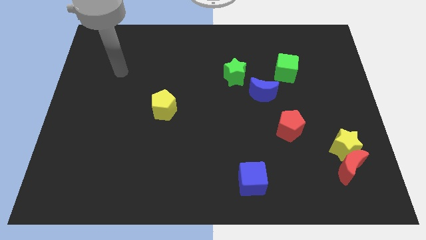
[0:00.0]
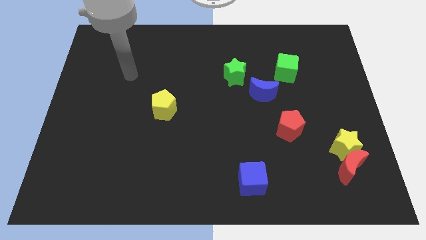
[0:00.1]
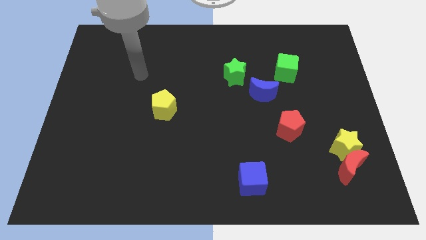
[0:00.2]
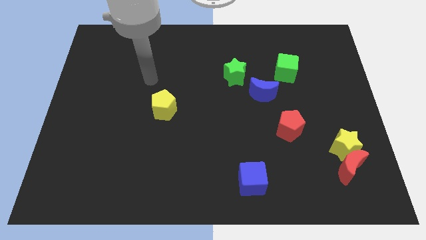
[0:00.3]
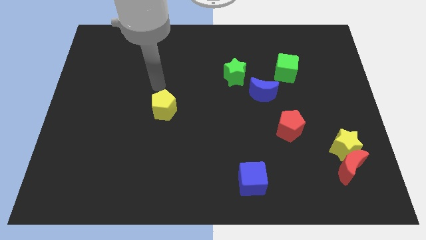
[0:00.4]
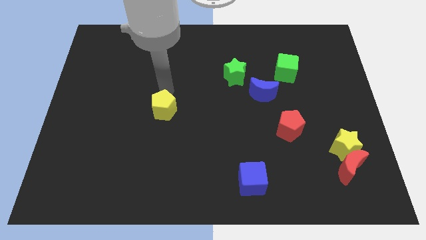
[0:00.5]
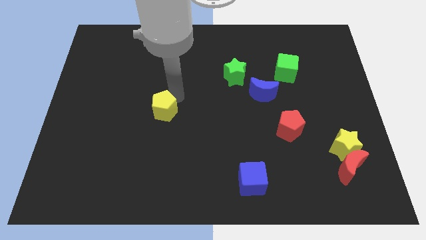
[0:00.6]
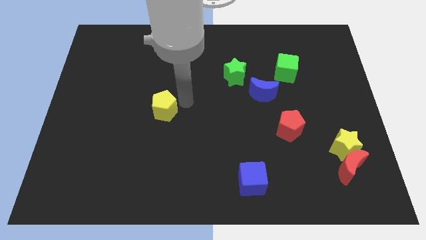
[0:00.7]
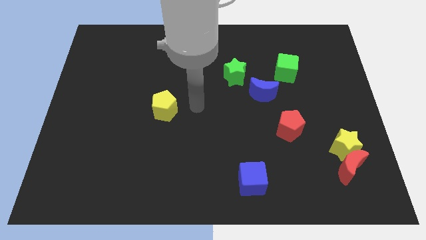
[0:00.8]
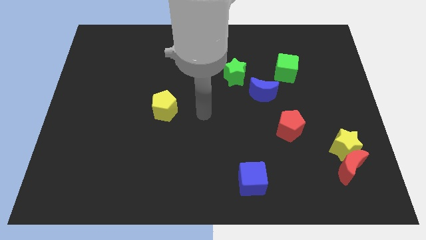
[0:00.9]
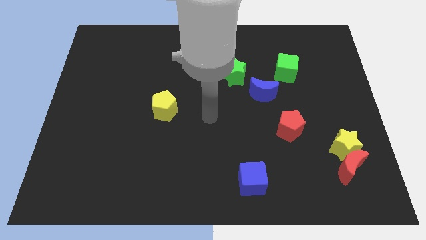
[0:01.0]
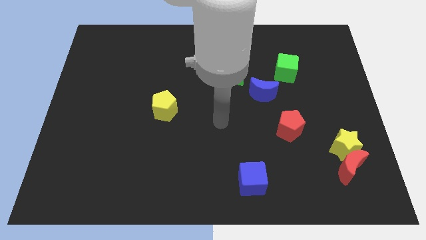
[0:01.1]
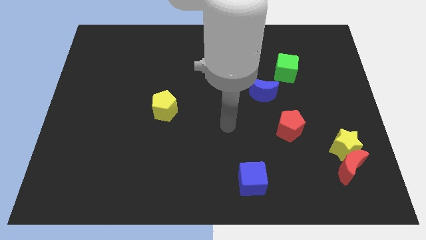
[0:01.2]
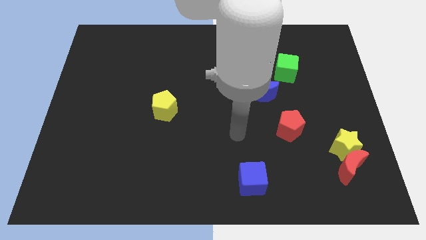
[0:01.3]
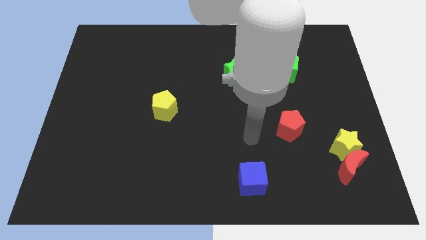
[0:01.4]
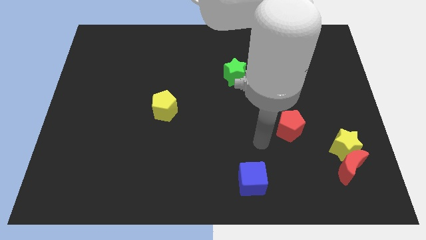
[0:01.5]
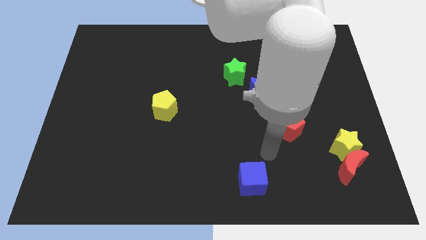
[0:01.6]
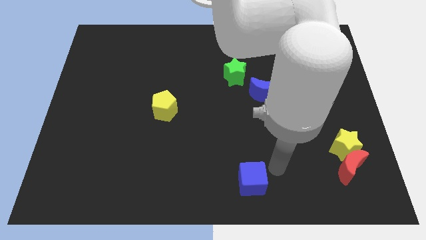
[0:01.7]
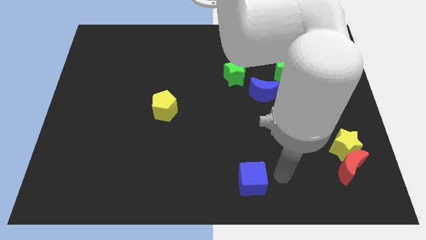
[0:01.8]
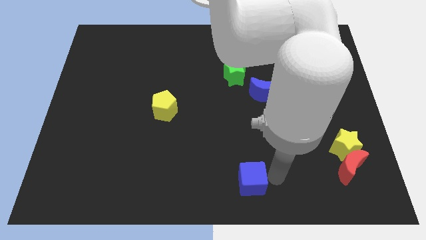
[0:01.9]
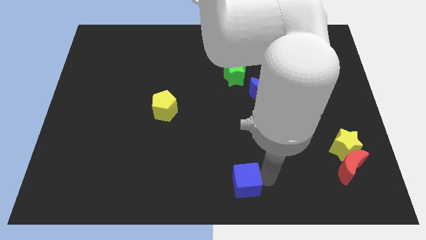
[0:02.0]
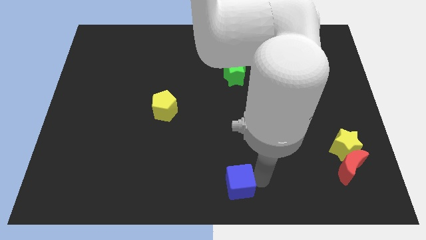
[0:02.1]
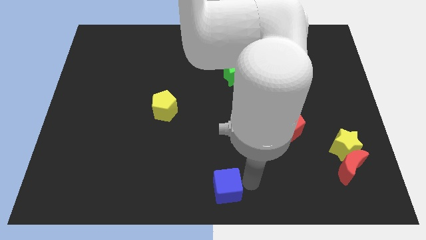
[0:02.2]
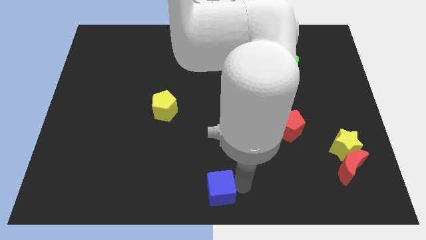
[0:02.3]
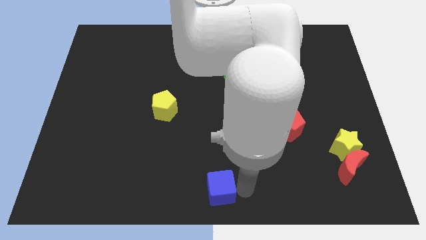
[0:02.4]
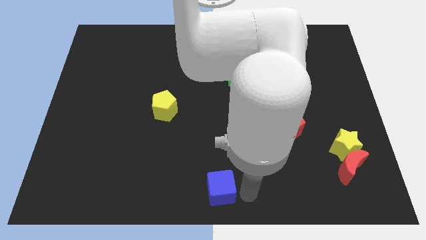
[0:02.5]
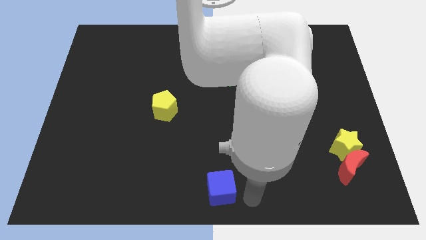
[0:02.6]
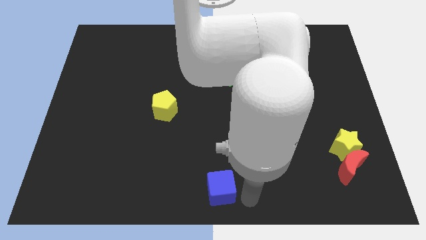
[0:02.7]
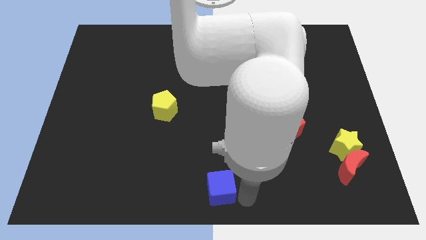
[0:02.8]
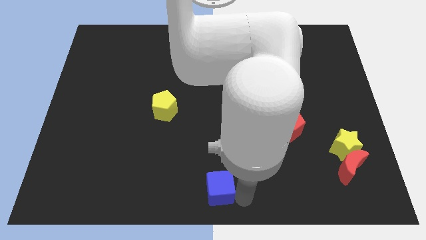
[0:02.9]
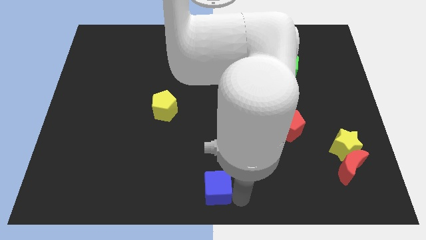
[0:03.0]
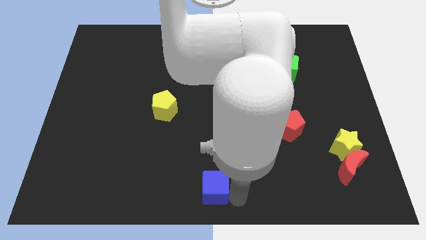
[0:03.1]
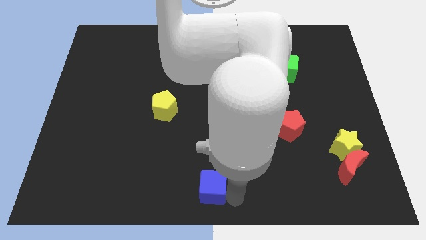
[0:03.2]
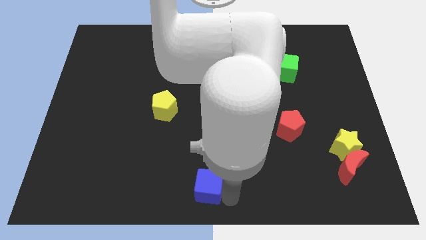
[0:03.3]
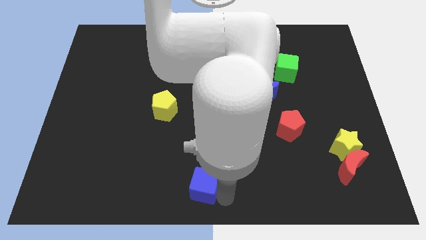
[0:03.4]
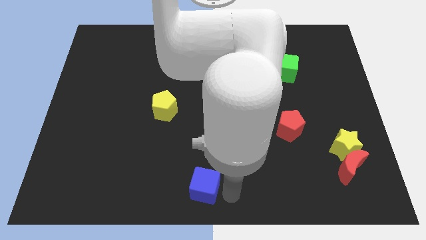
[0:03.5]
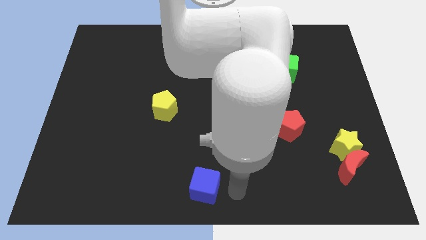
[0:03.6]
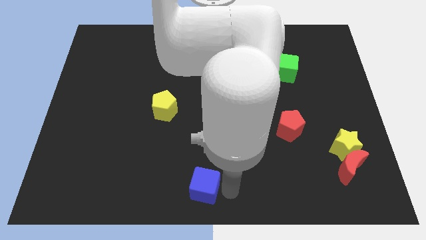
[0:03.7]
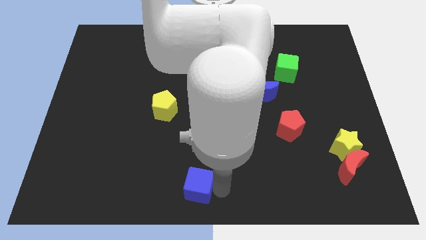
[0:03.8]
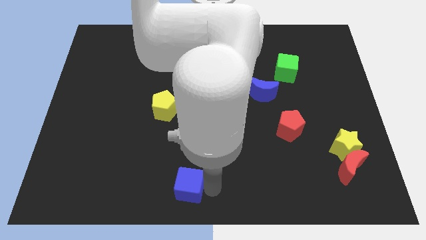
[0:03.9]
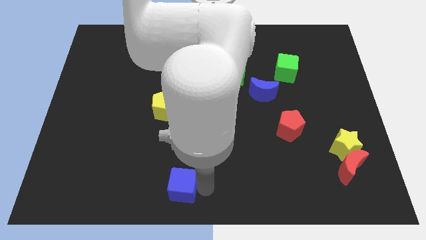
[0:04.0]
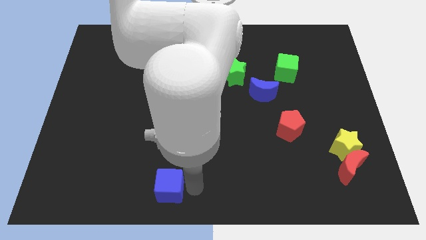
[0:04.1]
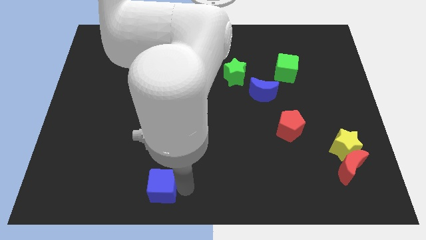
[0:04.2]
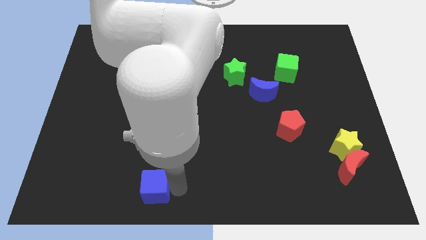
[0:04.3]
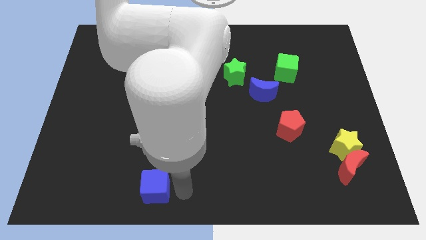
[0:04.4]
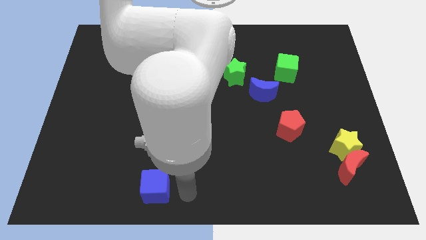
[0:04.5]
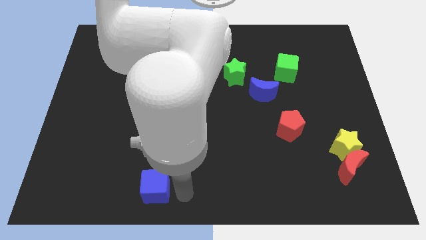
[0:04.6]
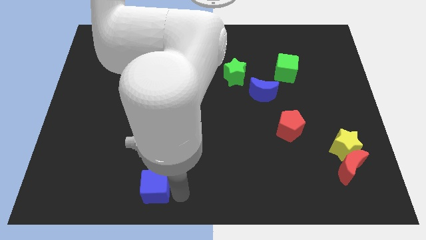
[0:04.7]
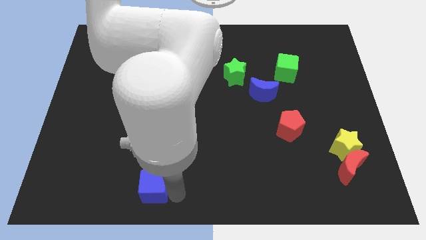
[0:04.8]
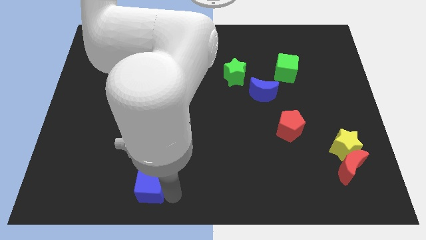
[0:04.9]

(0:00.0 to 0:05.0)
move the blue cube to the left

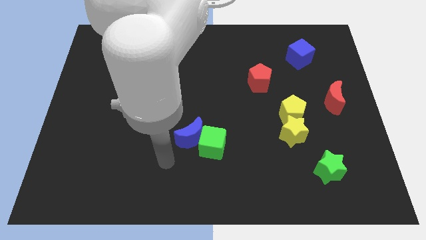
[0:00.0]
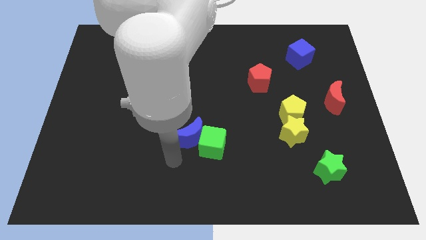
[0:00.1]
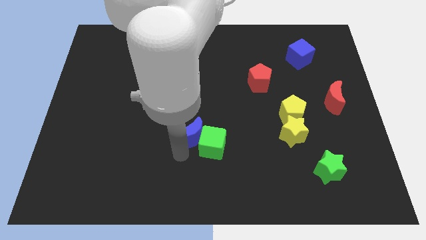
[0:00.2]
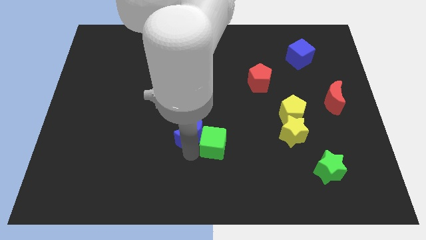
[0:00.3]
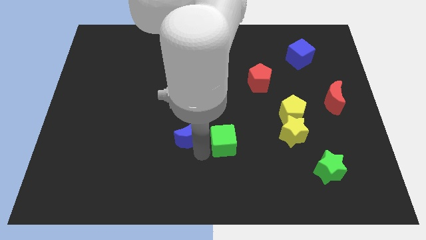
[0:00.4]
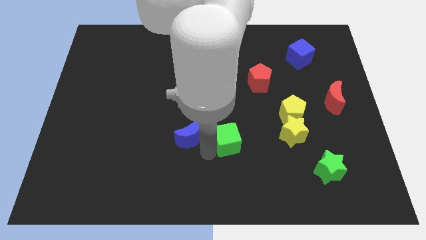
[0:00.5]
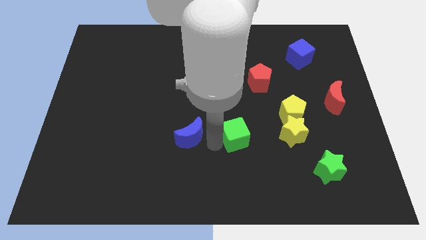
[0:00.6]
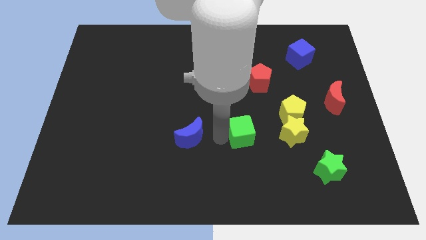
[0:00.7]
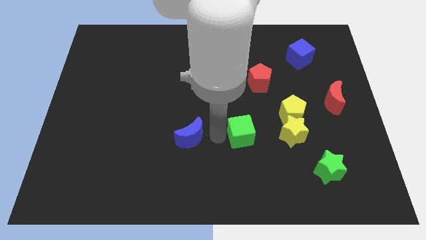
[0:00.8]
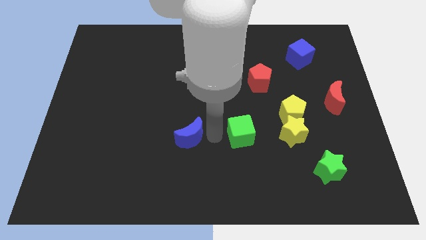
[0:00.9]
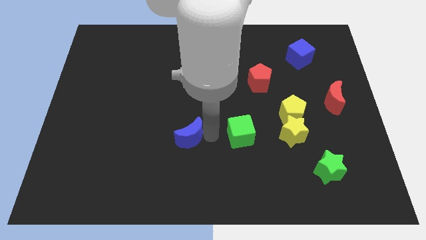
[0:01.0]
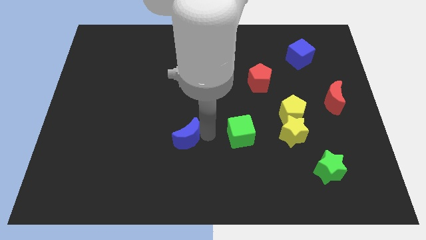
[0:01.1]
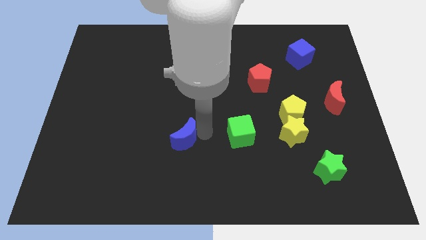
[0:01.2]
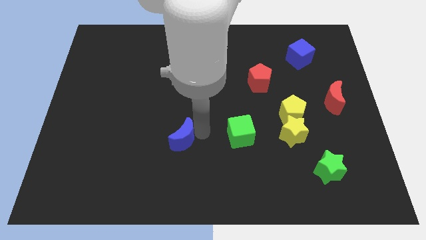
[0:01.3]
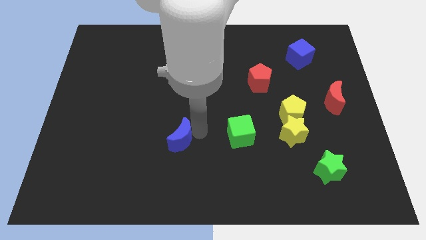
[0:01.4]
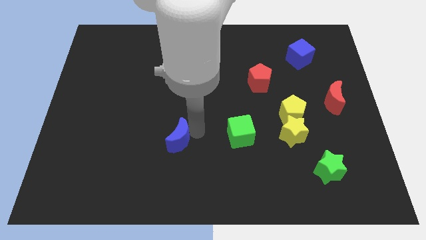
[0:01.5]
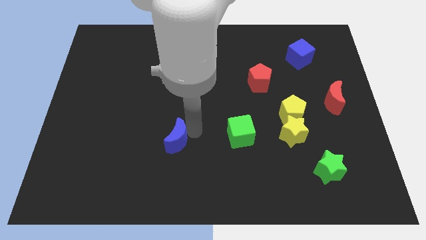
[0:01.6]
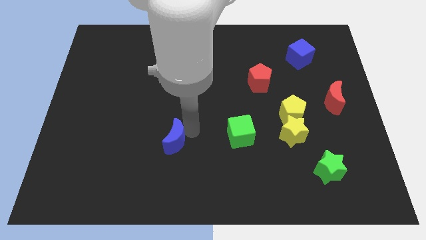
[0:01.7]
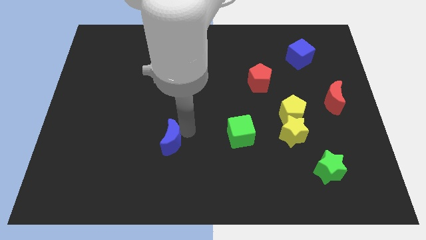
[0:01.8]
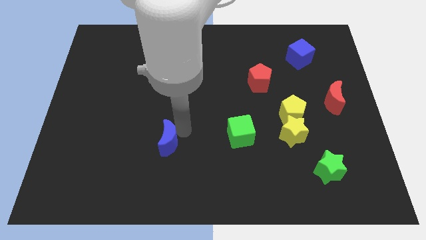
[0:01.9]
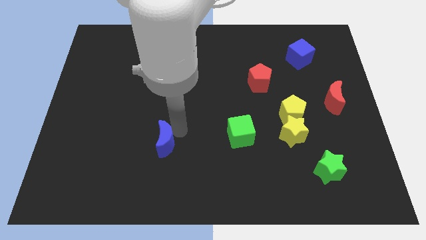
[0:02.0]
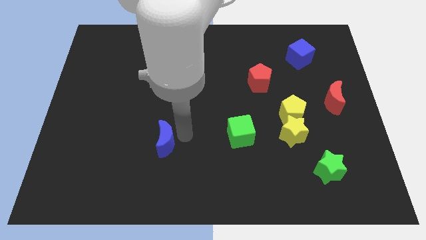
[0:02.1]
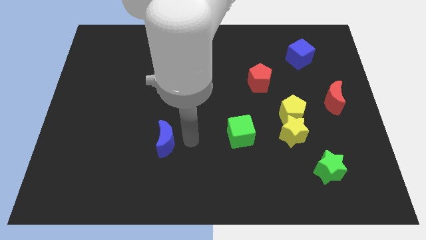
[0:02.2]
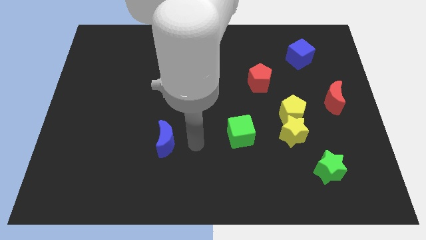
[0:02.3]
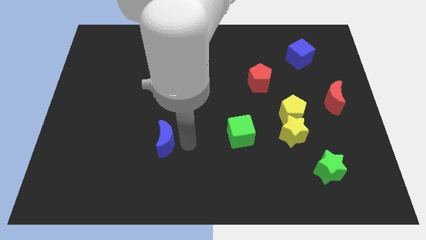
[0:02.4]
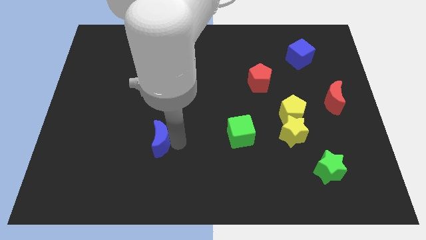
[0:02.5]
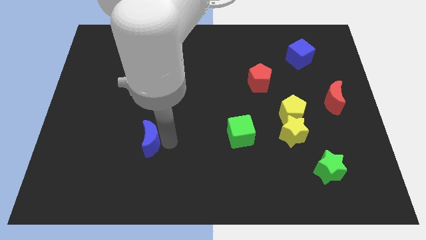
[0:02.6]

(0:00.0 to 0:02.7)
push the blue moon to the left slightly

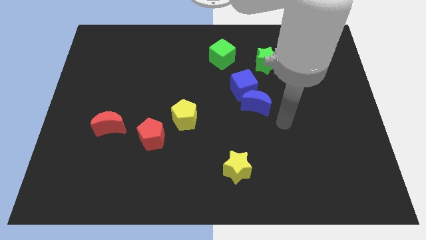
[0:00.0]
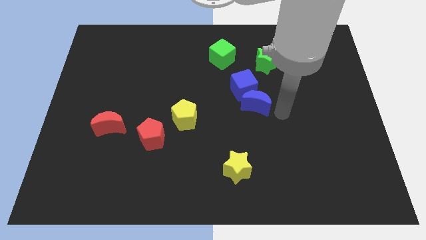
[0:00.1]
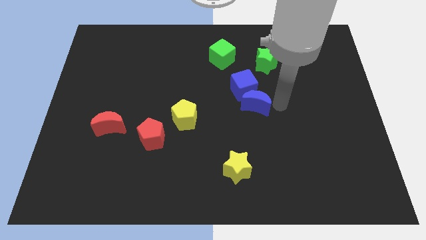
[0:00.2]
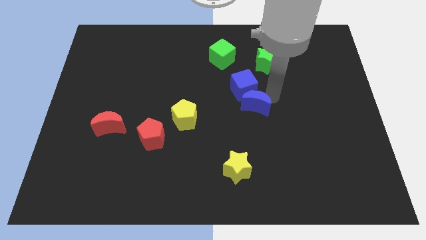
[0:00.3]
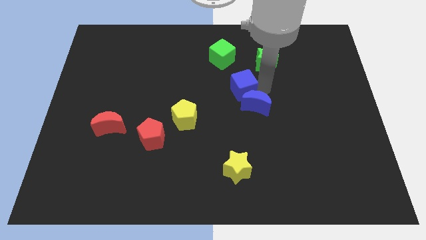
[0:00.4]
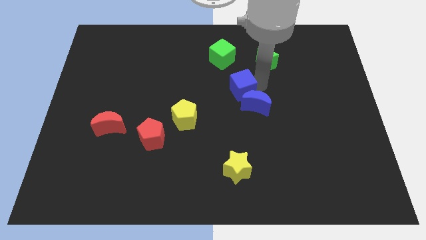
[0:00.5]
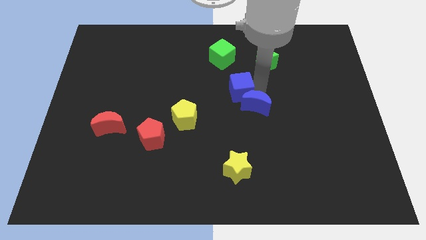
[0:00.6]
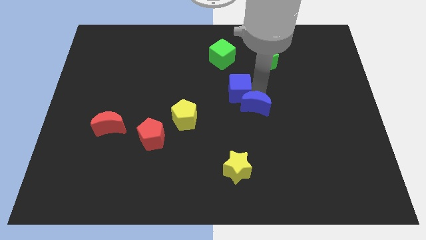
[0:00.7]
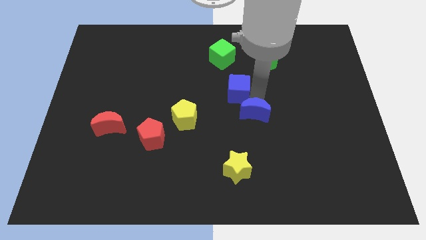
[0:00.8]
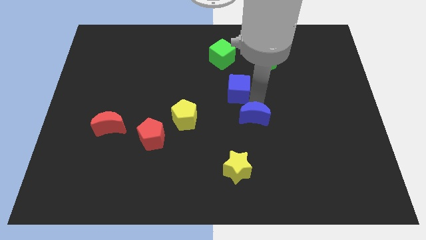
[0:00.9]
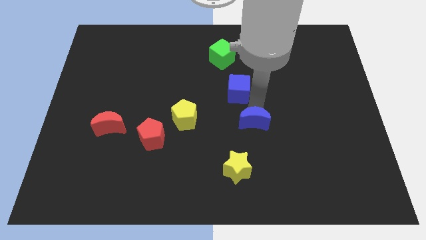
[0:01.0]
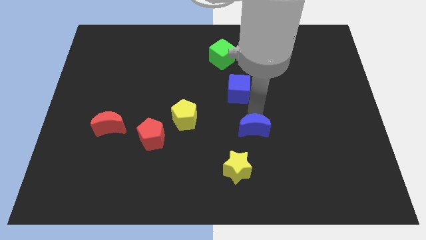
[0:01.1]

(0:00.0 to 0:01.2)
slightly push the blue moon down
